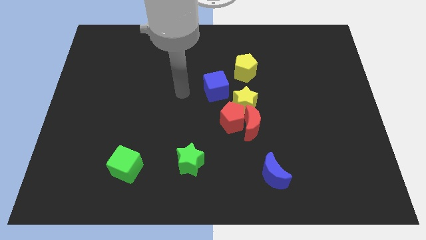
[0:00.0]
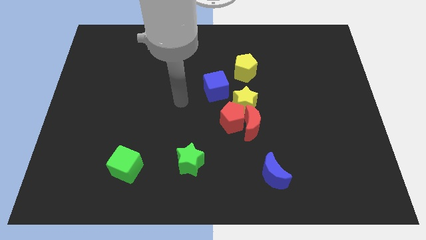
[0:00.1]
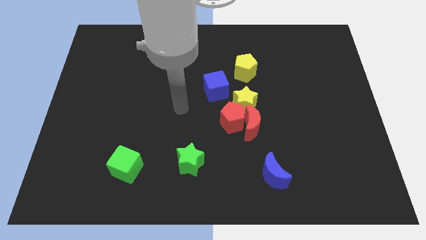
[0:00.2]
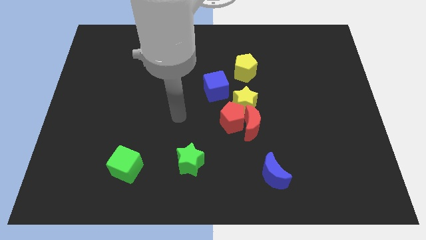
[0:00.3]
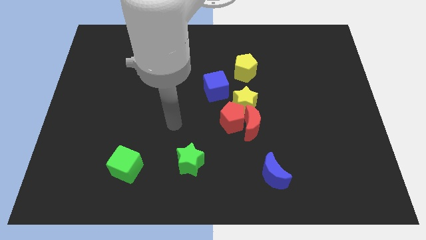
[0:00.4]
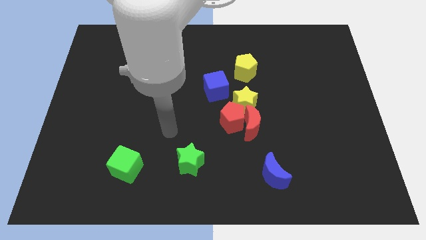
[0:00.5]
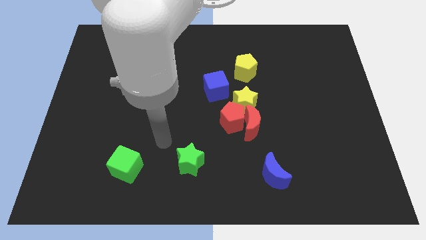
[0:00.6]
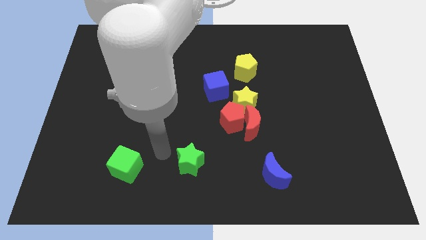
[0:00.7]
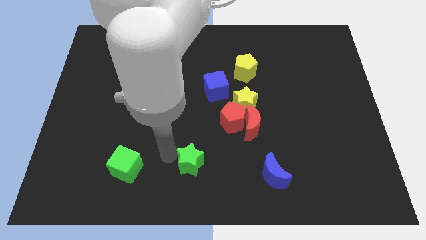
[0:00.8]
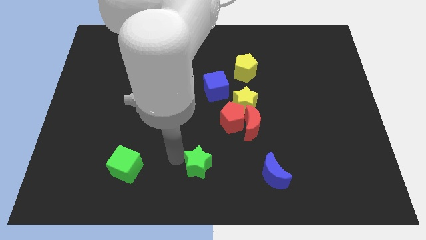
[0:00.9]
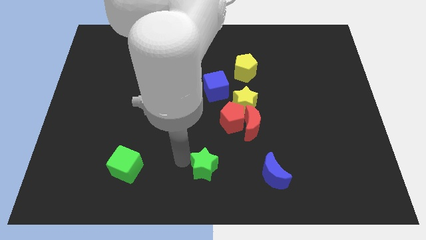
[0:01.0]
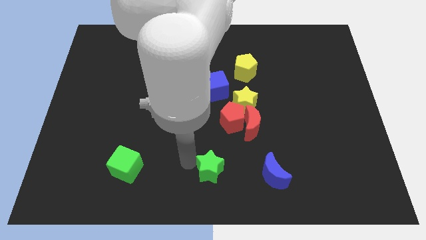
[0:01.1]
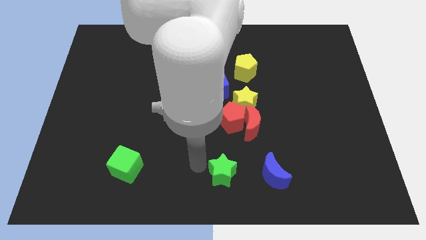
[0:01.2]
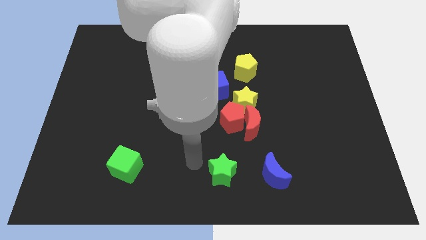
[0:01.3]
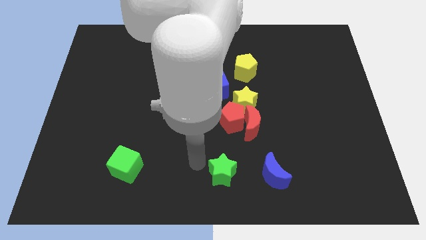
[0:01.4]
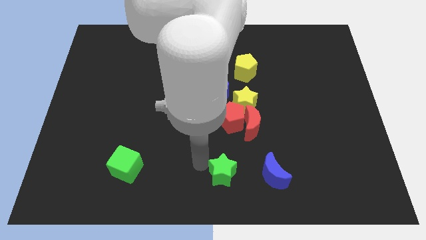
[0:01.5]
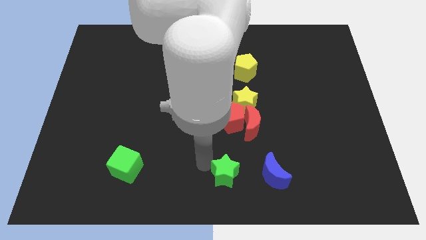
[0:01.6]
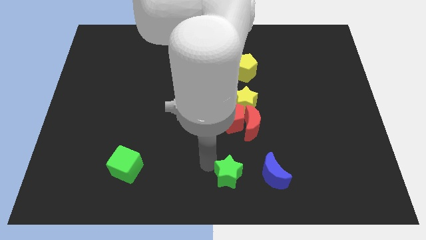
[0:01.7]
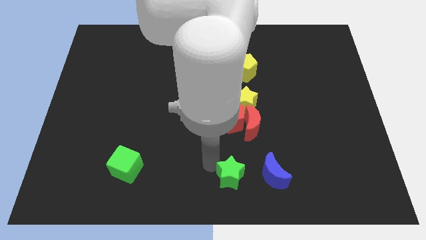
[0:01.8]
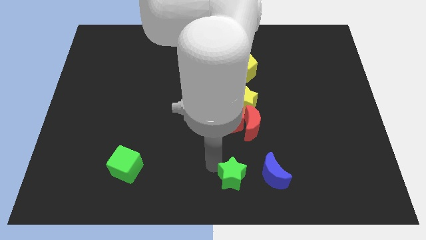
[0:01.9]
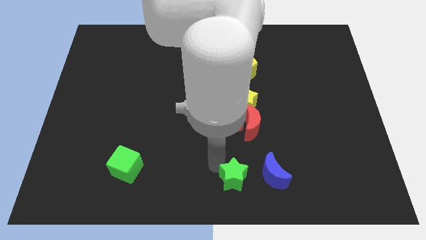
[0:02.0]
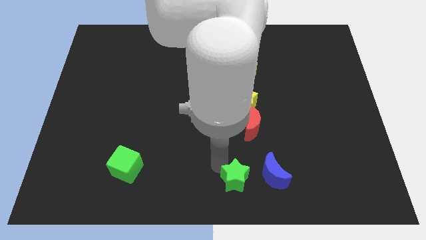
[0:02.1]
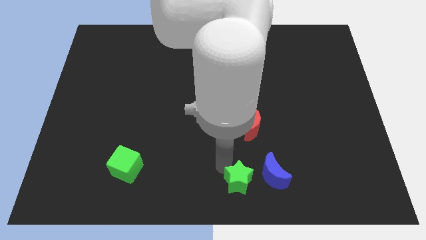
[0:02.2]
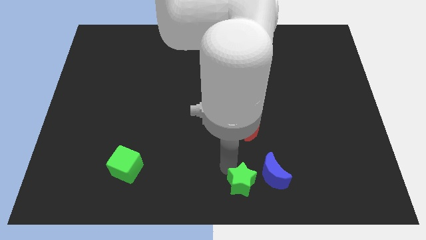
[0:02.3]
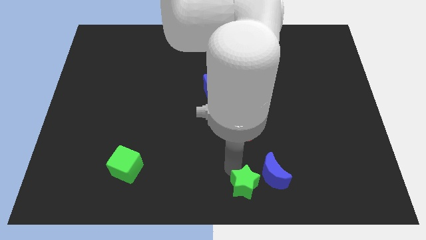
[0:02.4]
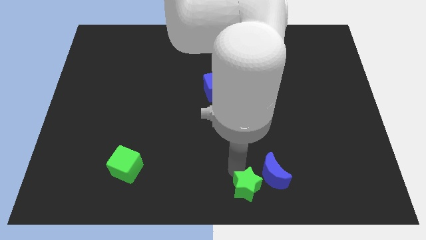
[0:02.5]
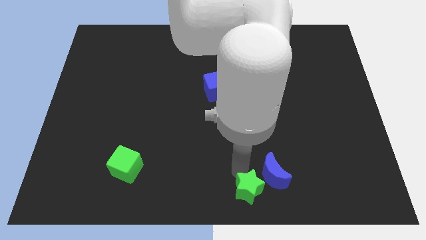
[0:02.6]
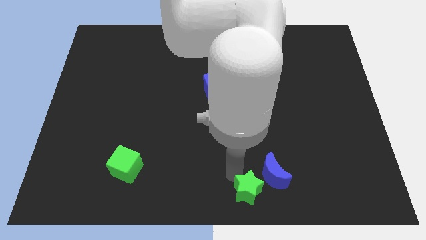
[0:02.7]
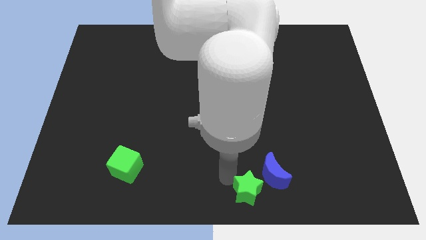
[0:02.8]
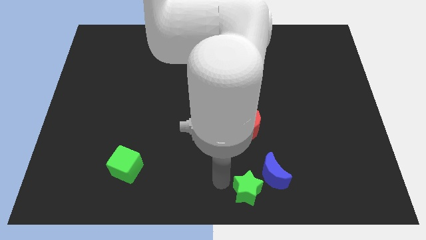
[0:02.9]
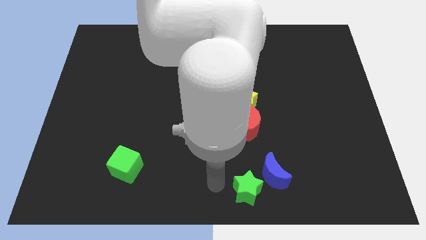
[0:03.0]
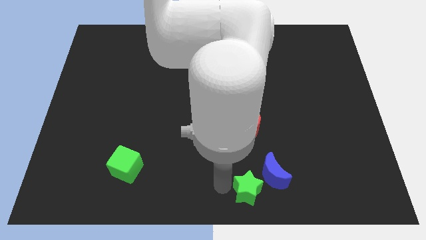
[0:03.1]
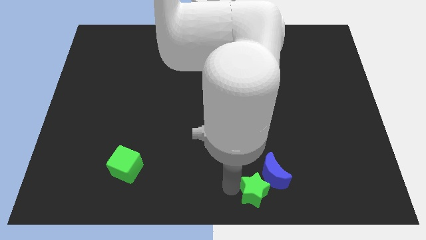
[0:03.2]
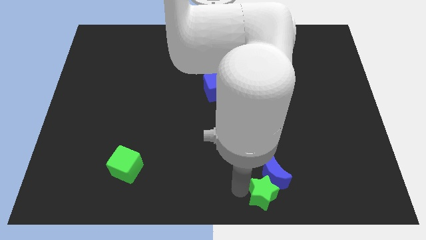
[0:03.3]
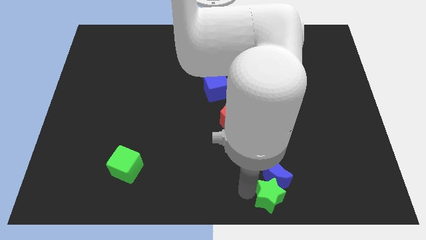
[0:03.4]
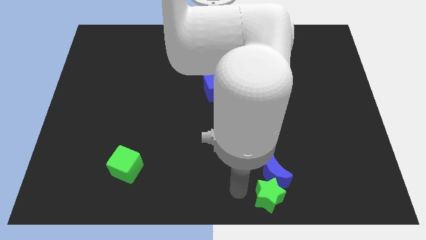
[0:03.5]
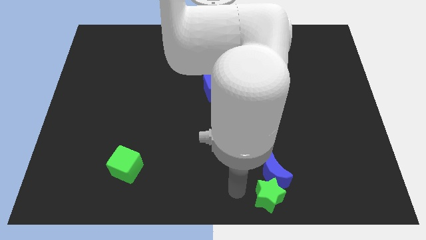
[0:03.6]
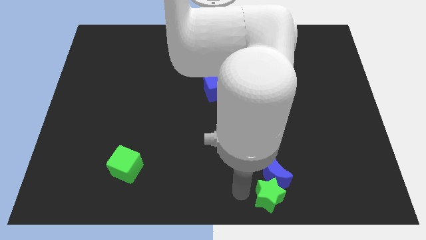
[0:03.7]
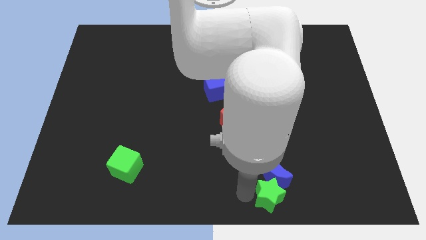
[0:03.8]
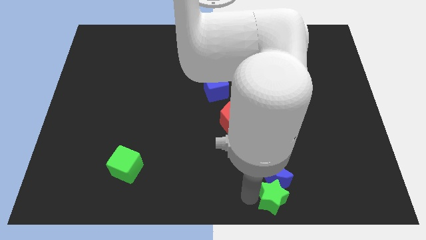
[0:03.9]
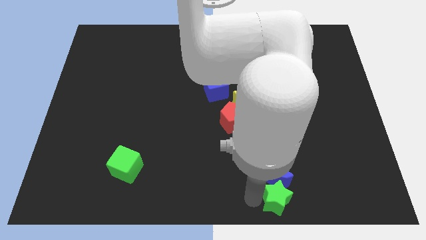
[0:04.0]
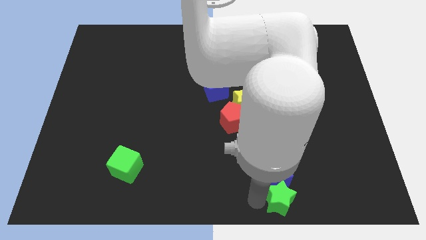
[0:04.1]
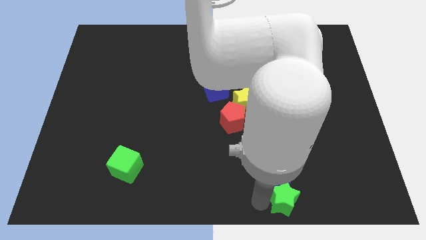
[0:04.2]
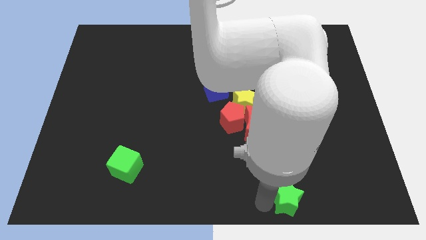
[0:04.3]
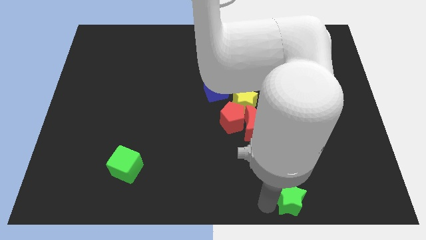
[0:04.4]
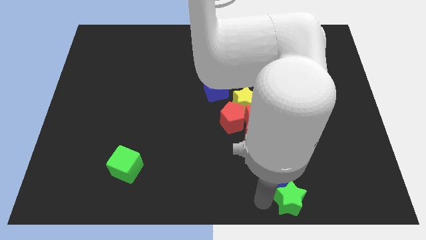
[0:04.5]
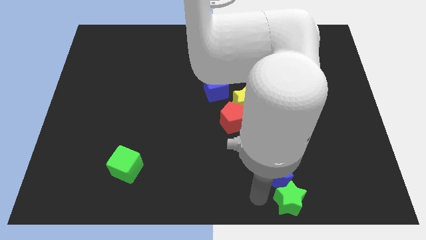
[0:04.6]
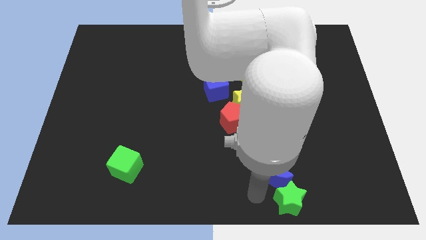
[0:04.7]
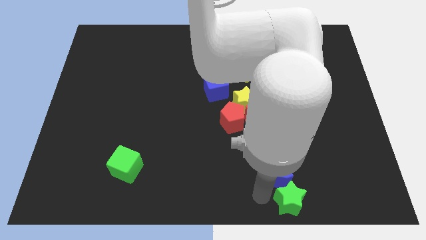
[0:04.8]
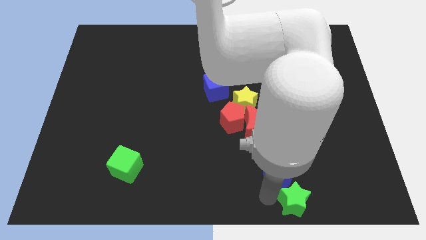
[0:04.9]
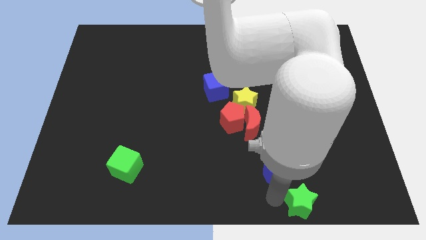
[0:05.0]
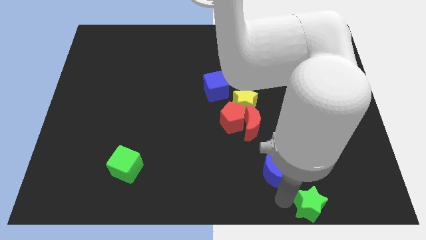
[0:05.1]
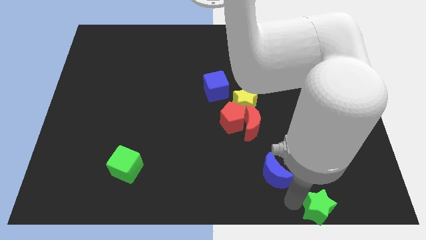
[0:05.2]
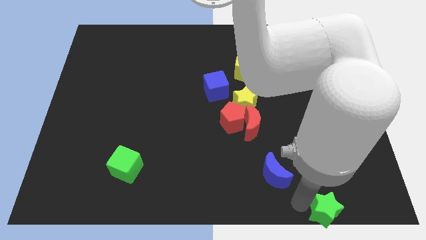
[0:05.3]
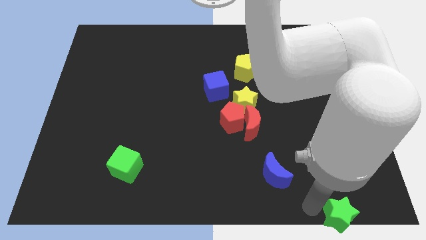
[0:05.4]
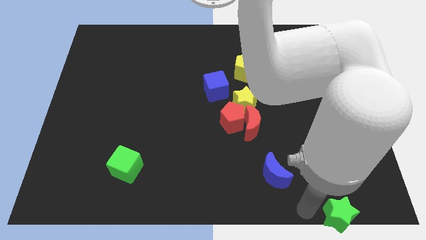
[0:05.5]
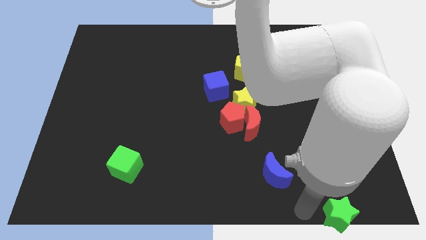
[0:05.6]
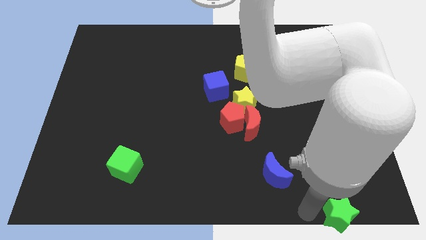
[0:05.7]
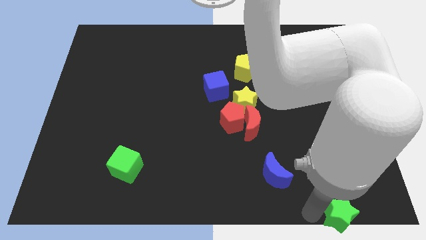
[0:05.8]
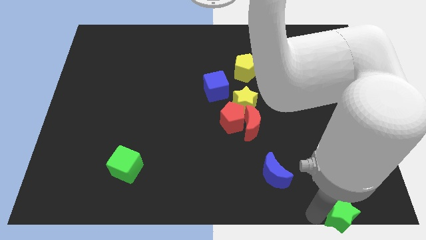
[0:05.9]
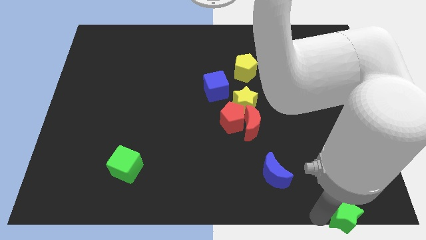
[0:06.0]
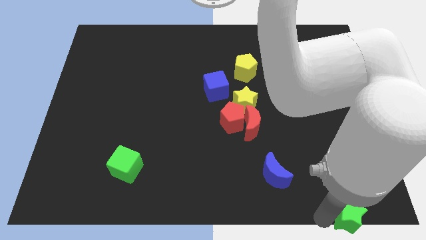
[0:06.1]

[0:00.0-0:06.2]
push the green star to the lower right corner

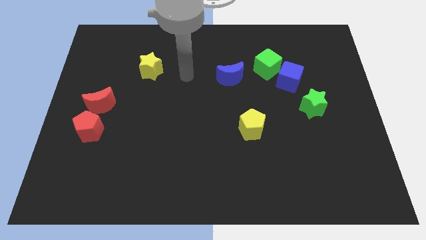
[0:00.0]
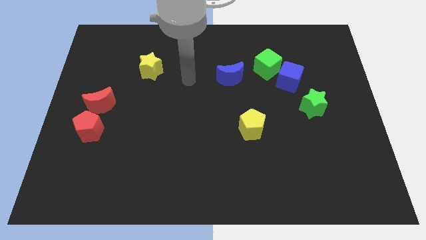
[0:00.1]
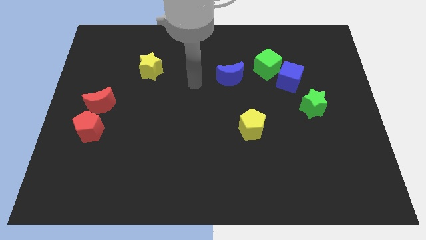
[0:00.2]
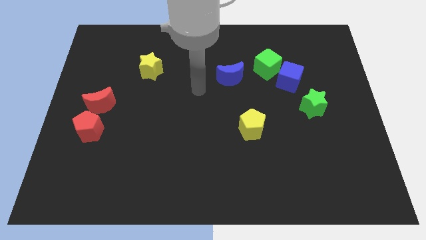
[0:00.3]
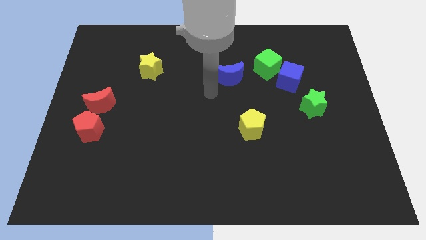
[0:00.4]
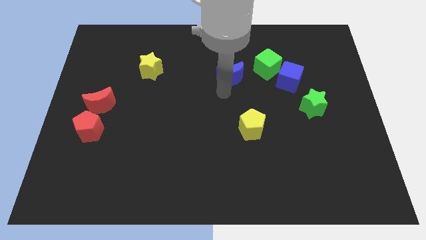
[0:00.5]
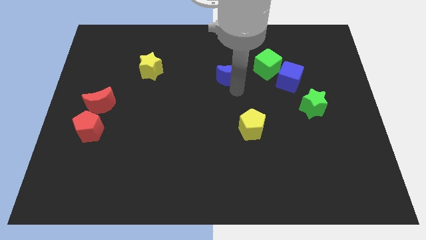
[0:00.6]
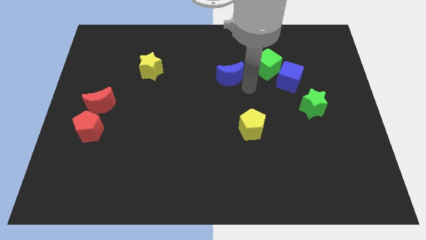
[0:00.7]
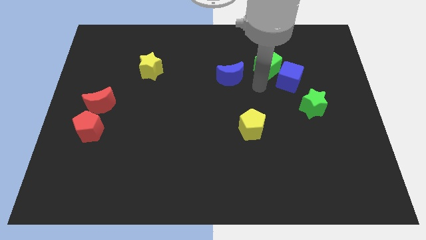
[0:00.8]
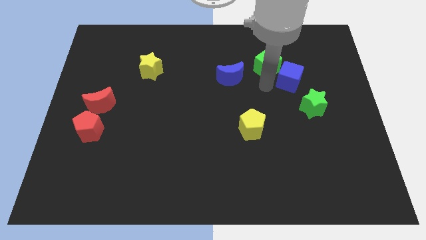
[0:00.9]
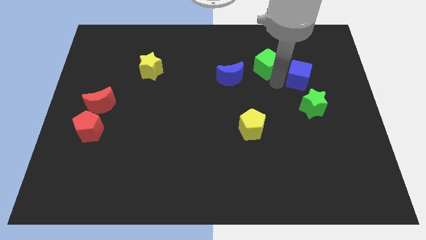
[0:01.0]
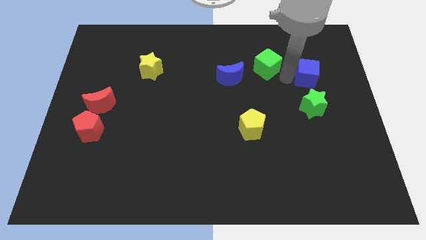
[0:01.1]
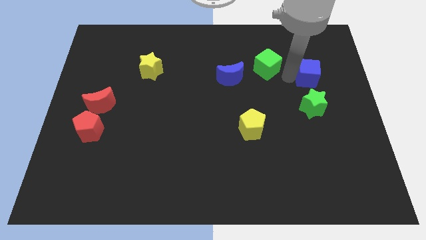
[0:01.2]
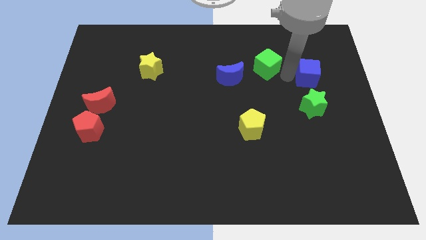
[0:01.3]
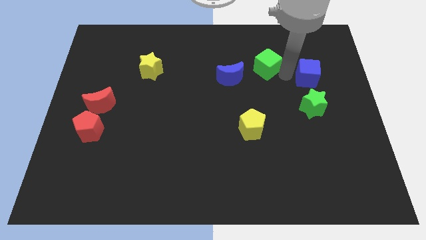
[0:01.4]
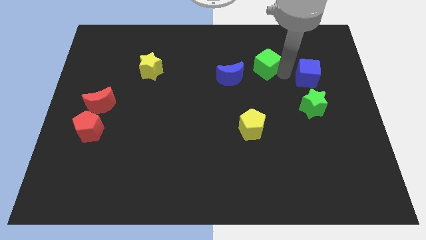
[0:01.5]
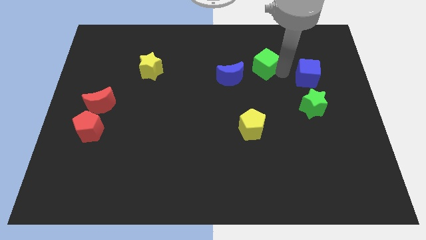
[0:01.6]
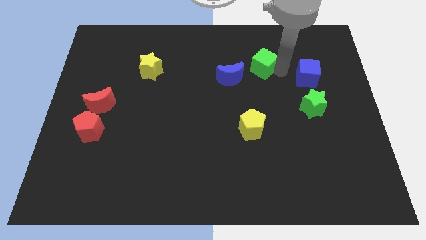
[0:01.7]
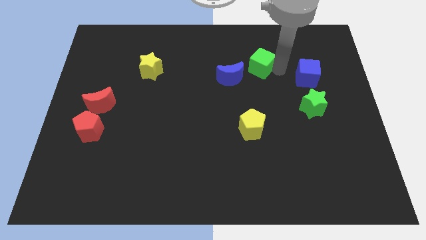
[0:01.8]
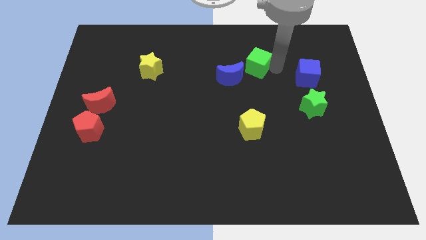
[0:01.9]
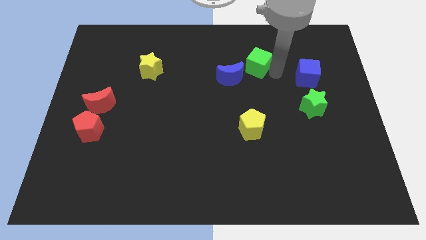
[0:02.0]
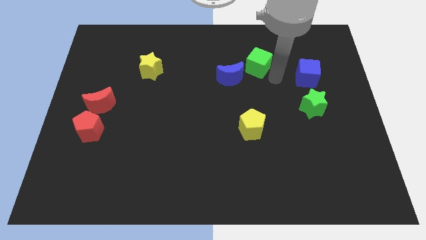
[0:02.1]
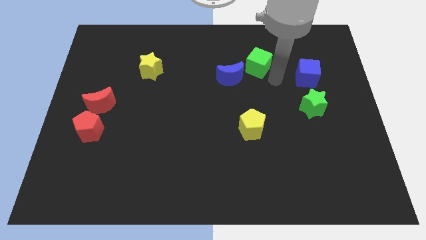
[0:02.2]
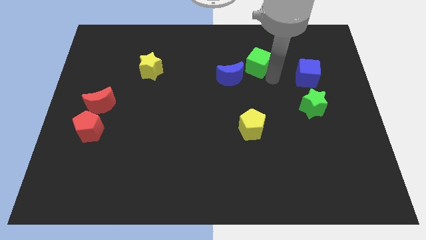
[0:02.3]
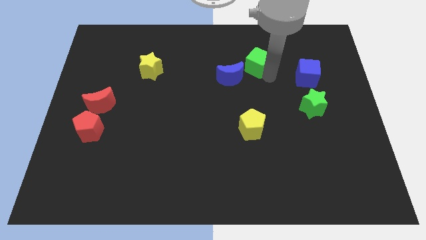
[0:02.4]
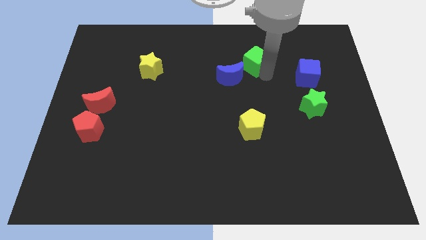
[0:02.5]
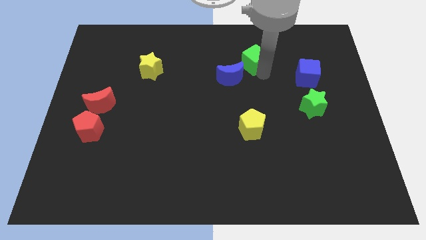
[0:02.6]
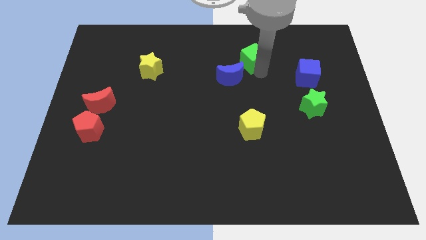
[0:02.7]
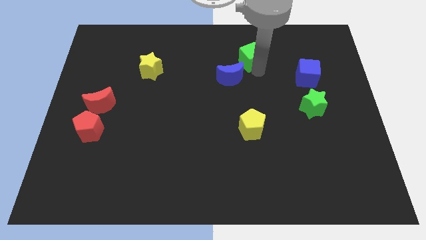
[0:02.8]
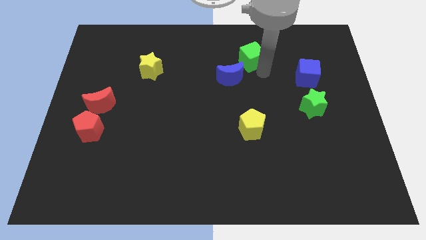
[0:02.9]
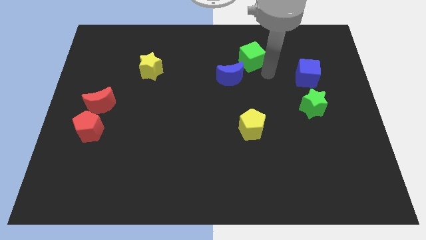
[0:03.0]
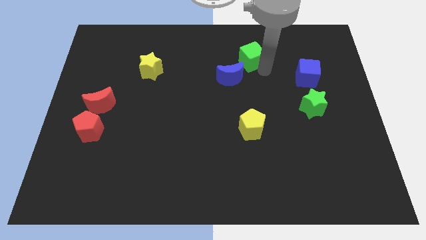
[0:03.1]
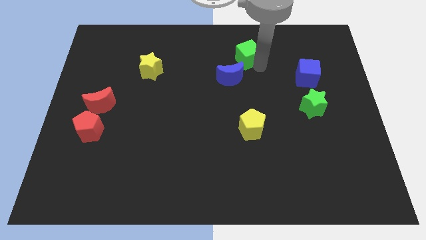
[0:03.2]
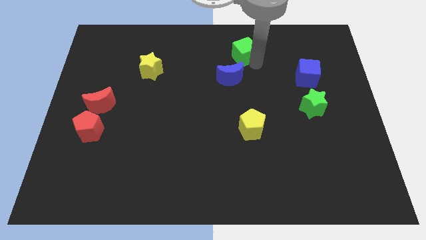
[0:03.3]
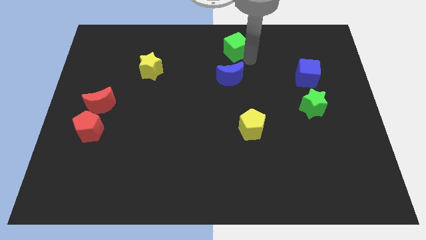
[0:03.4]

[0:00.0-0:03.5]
slide the green cube to the towards your base
